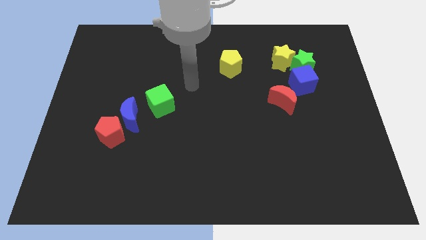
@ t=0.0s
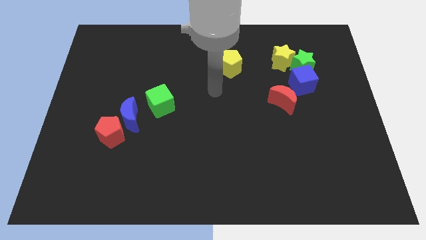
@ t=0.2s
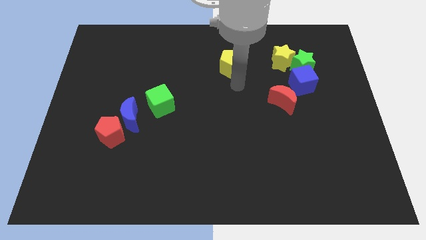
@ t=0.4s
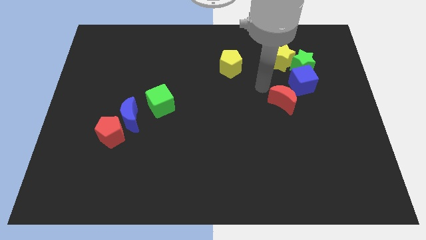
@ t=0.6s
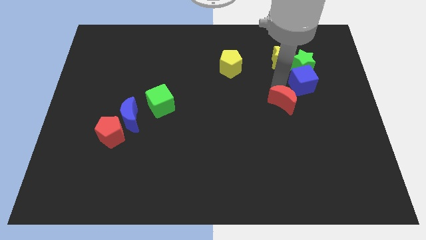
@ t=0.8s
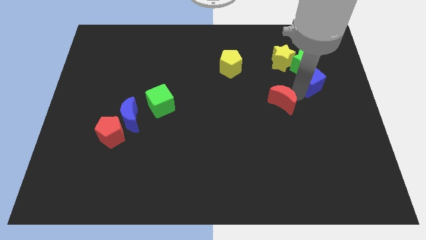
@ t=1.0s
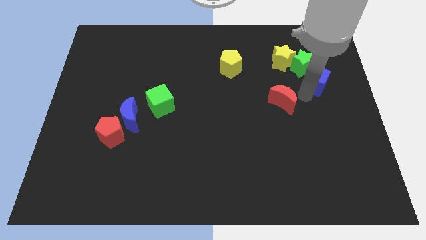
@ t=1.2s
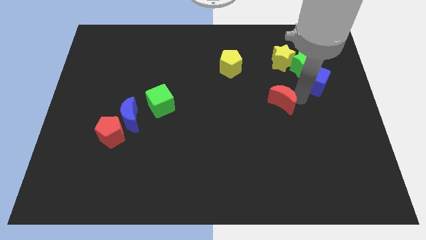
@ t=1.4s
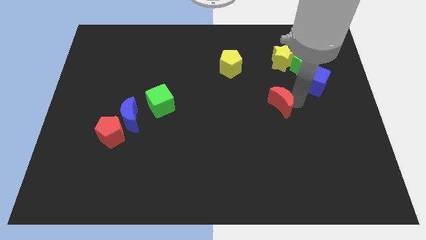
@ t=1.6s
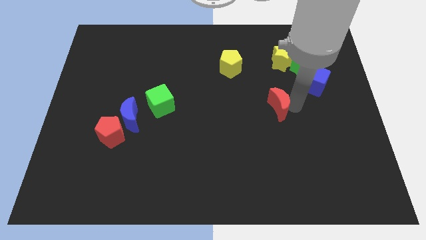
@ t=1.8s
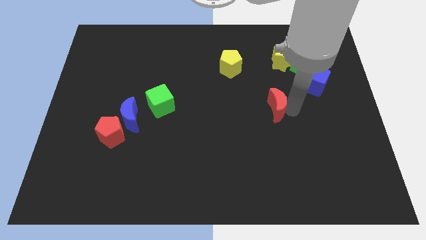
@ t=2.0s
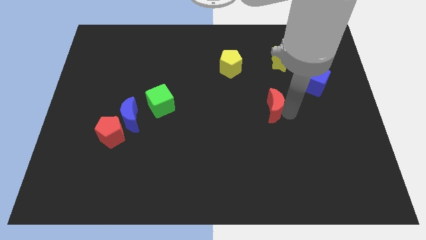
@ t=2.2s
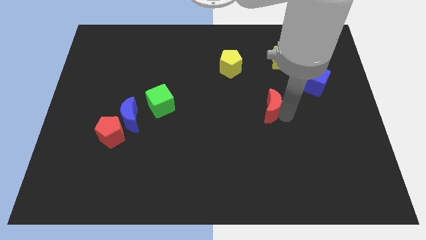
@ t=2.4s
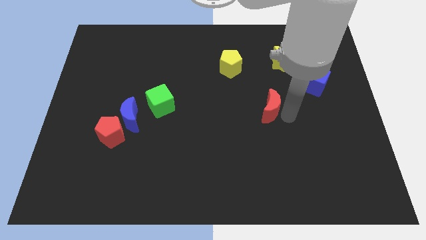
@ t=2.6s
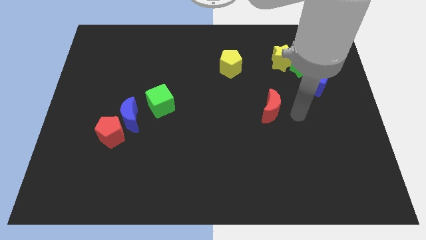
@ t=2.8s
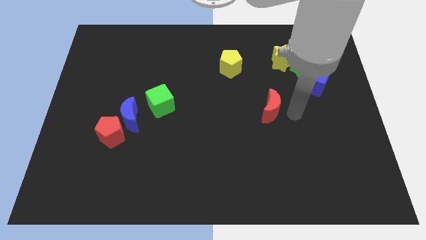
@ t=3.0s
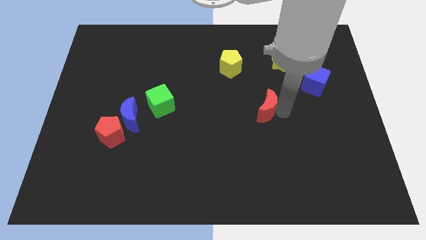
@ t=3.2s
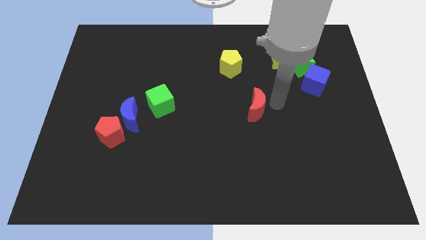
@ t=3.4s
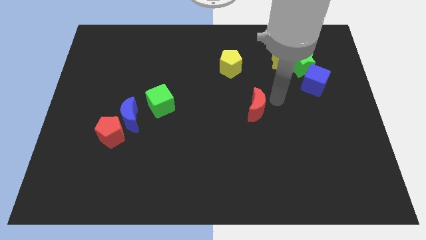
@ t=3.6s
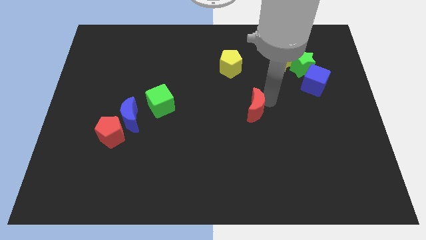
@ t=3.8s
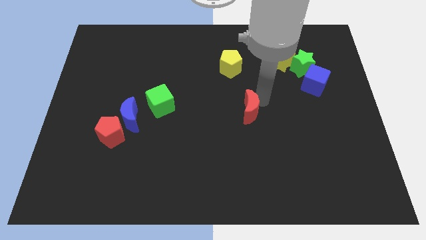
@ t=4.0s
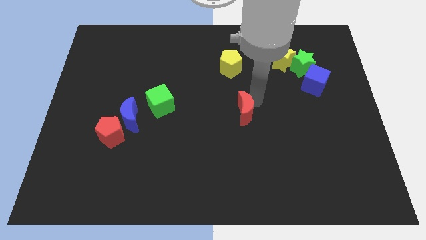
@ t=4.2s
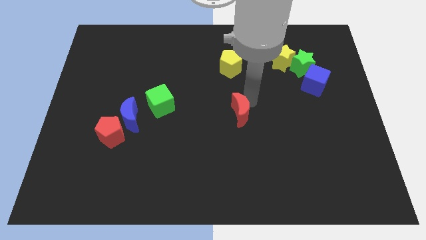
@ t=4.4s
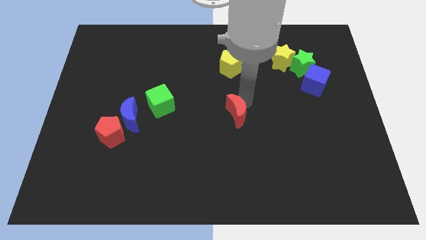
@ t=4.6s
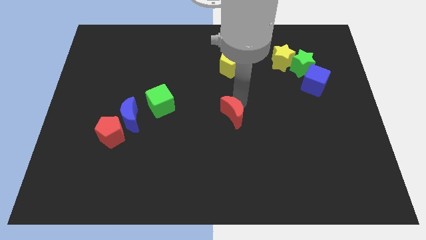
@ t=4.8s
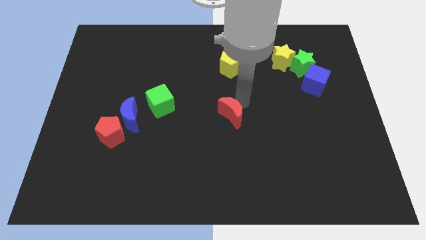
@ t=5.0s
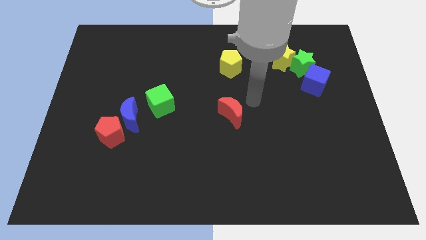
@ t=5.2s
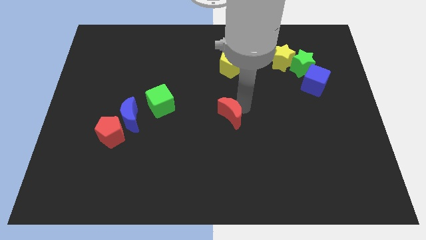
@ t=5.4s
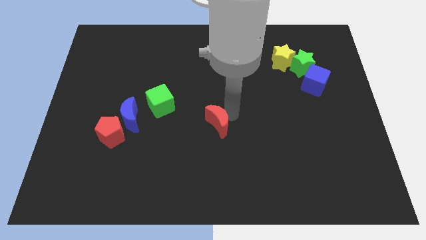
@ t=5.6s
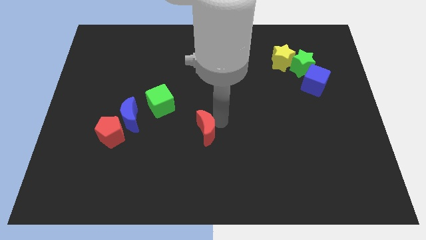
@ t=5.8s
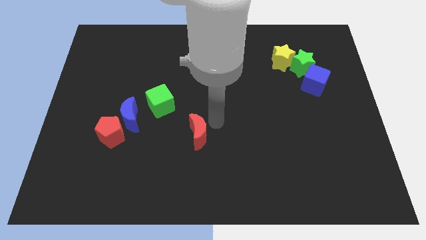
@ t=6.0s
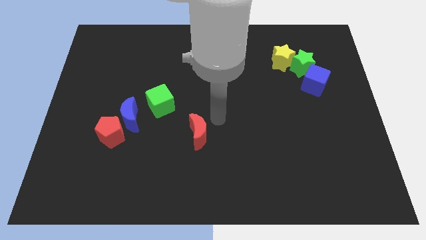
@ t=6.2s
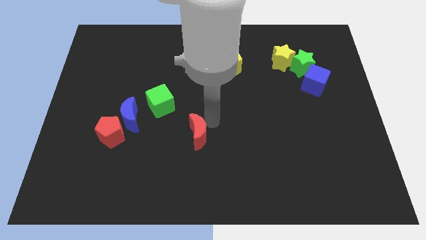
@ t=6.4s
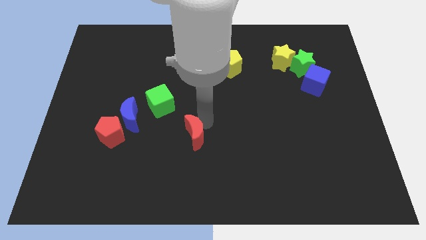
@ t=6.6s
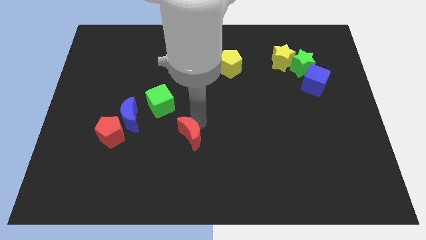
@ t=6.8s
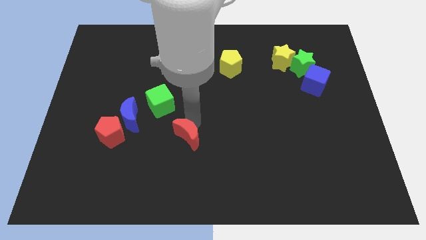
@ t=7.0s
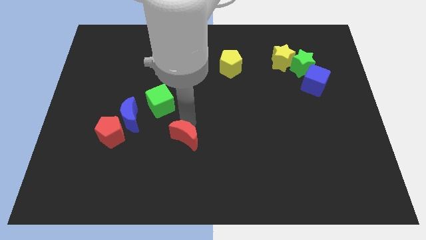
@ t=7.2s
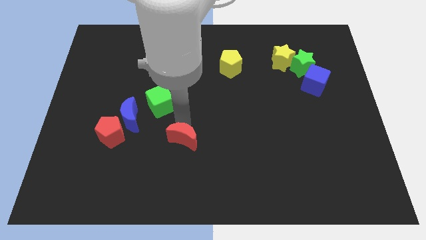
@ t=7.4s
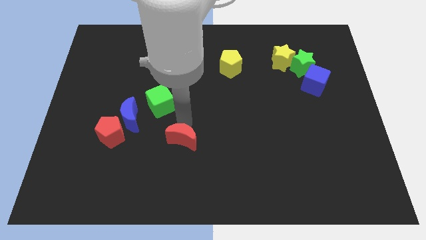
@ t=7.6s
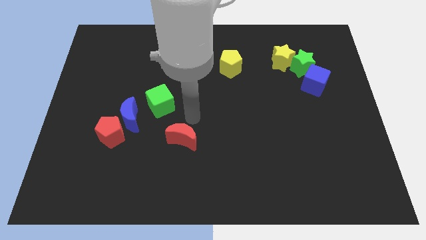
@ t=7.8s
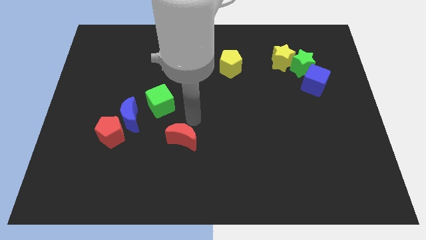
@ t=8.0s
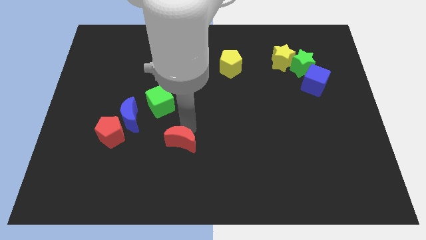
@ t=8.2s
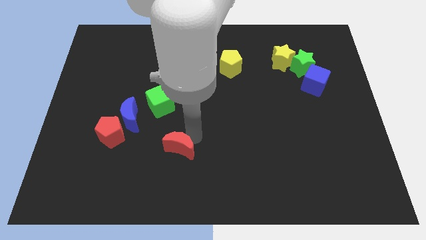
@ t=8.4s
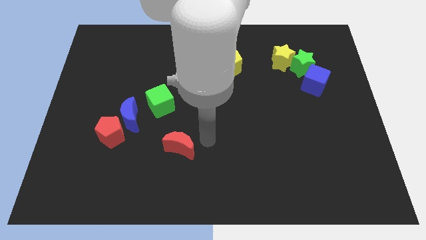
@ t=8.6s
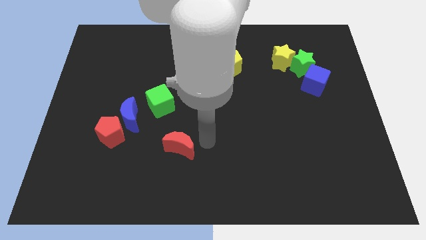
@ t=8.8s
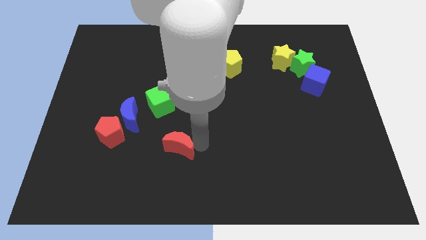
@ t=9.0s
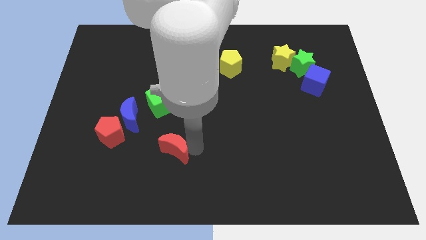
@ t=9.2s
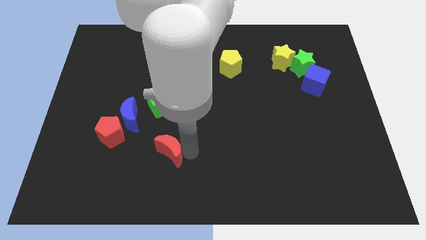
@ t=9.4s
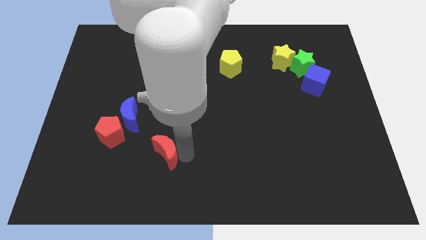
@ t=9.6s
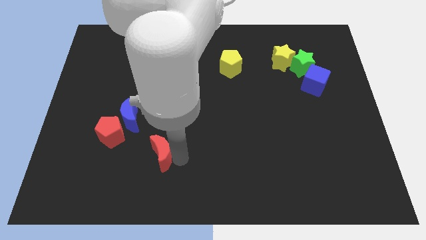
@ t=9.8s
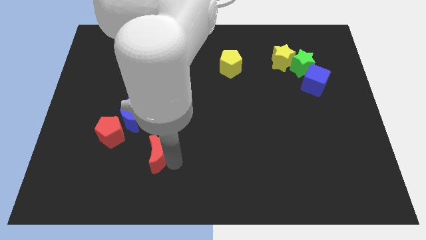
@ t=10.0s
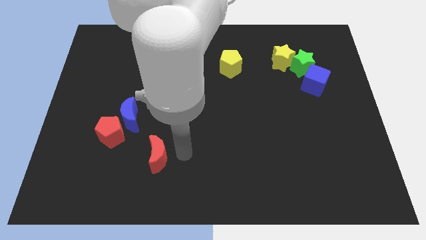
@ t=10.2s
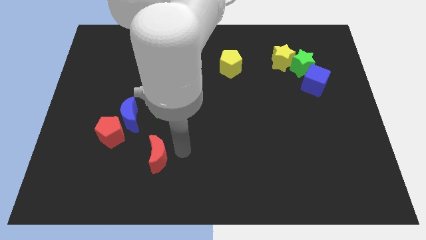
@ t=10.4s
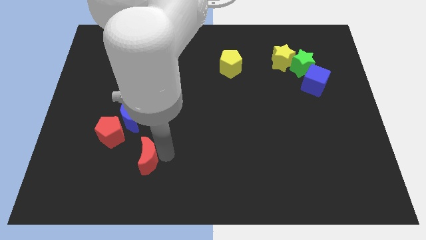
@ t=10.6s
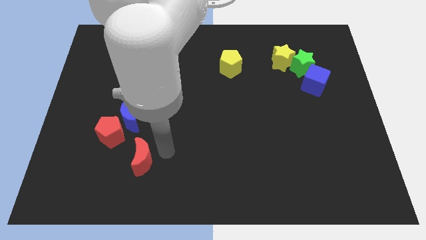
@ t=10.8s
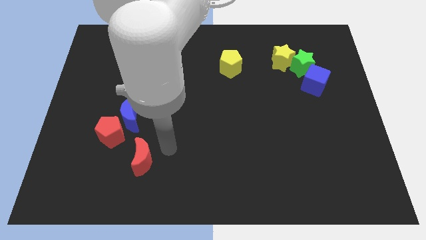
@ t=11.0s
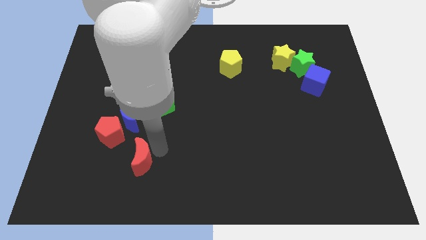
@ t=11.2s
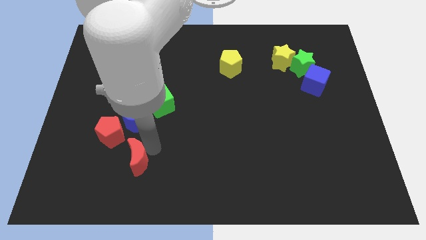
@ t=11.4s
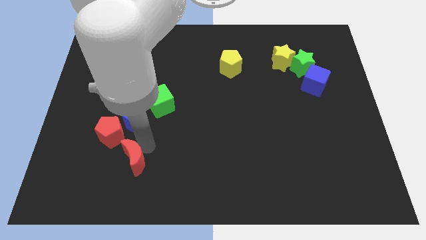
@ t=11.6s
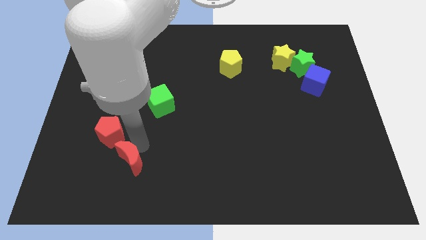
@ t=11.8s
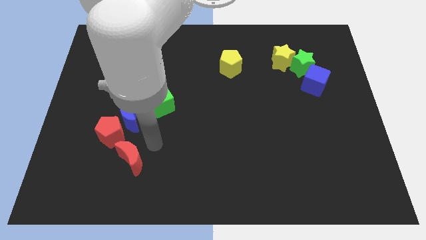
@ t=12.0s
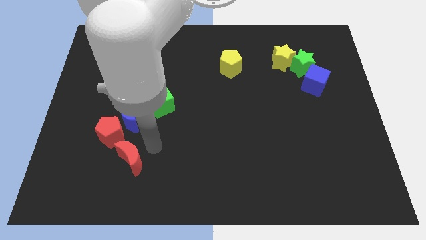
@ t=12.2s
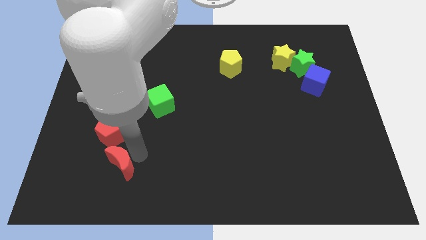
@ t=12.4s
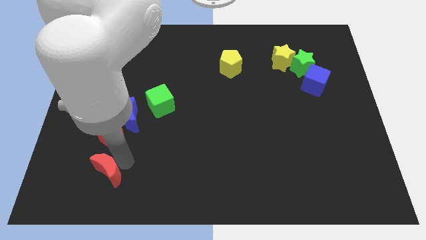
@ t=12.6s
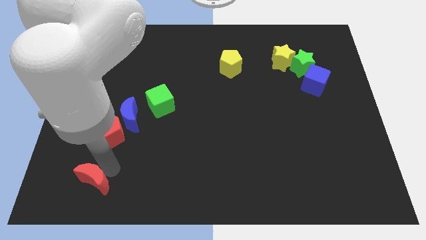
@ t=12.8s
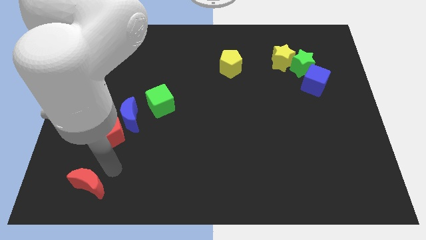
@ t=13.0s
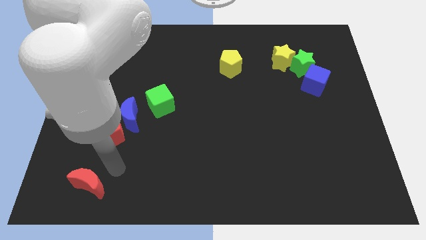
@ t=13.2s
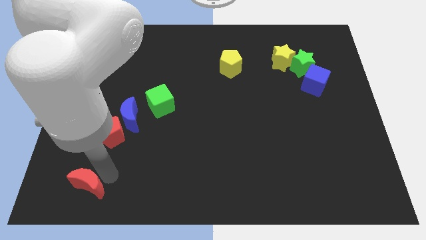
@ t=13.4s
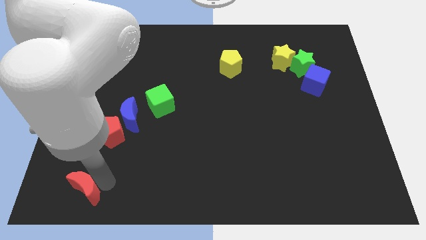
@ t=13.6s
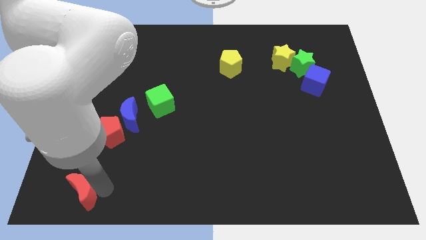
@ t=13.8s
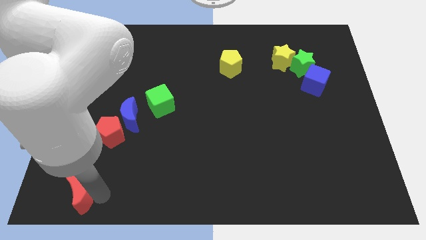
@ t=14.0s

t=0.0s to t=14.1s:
slide the red moon to the bottom left of the board
